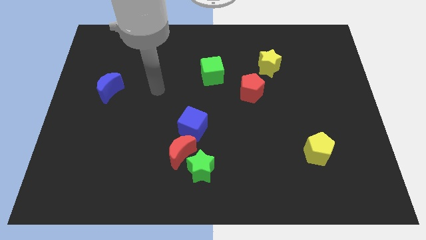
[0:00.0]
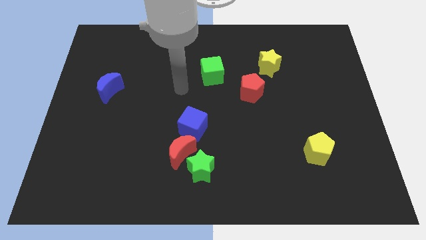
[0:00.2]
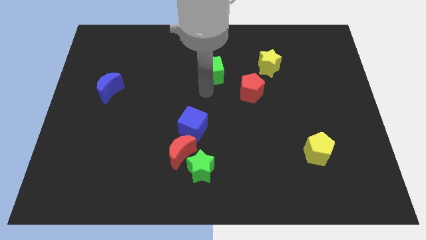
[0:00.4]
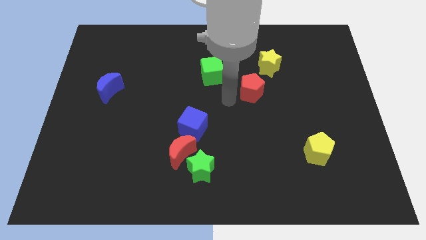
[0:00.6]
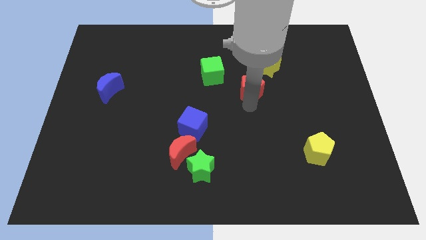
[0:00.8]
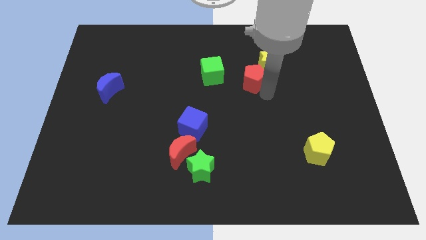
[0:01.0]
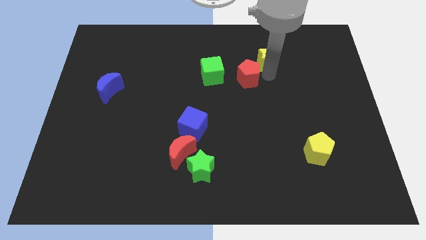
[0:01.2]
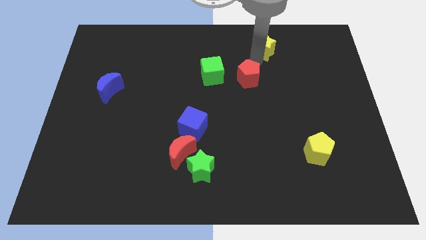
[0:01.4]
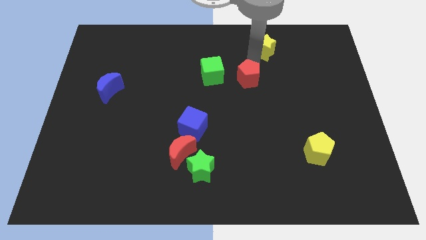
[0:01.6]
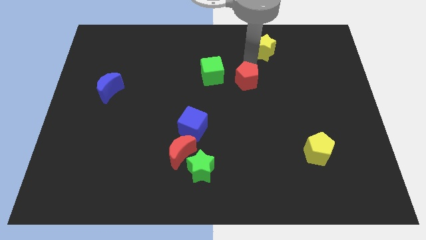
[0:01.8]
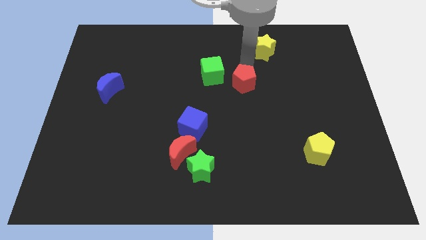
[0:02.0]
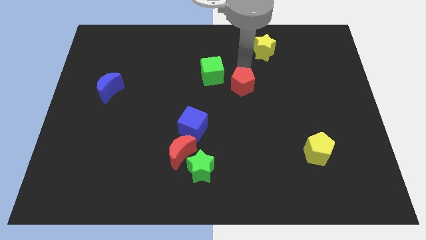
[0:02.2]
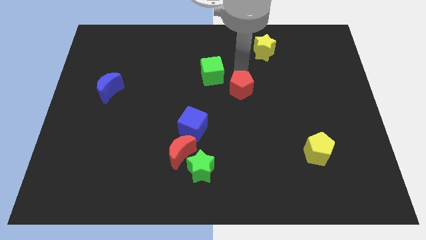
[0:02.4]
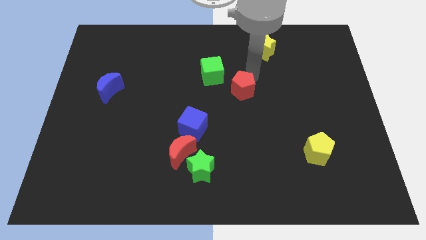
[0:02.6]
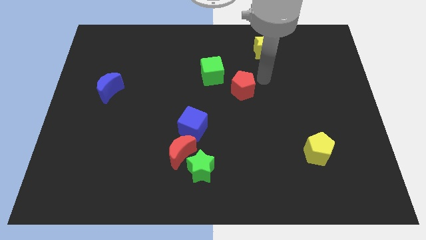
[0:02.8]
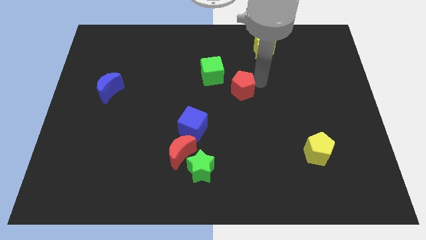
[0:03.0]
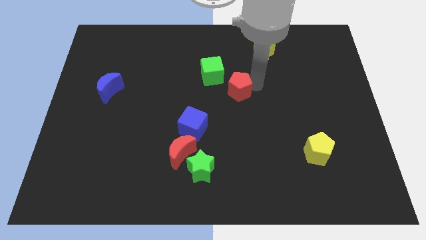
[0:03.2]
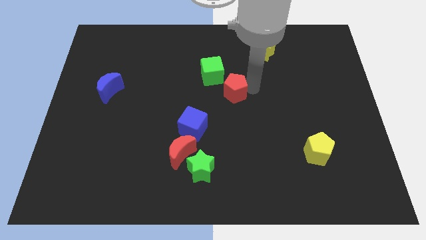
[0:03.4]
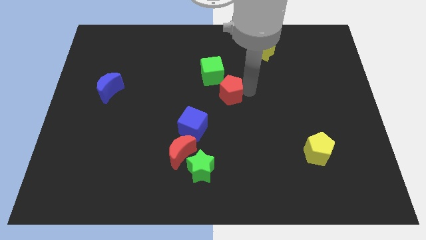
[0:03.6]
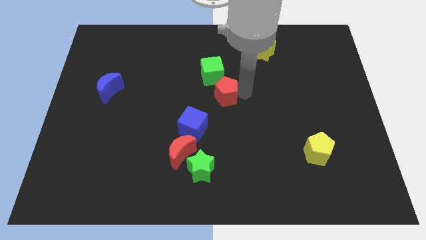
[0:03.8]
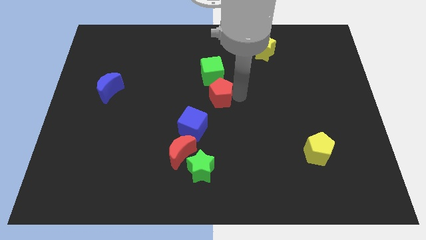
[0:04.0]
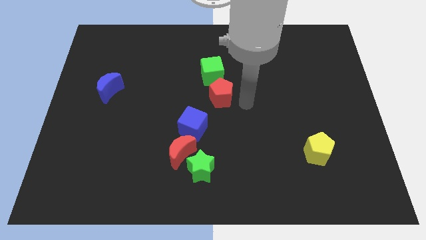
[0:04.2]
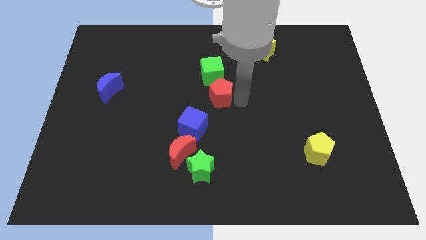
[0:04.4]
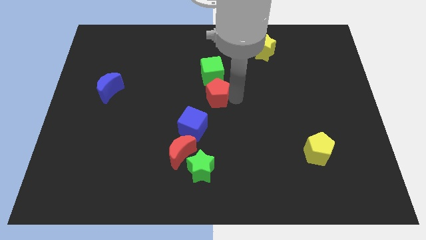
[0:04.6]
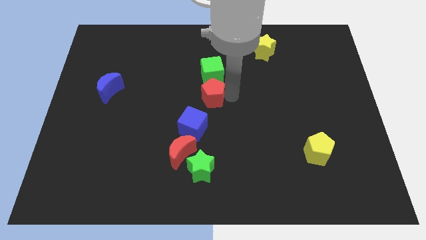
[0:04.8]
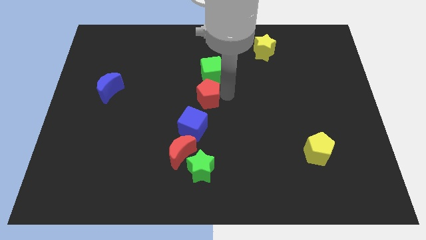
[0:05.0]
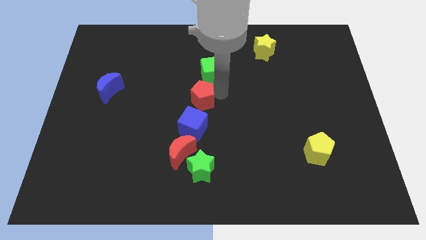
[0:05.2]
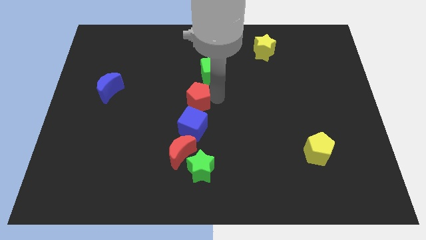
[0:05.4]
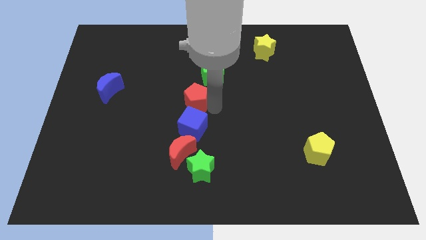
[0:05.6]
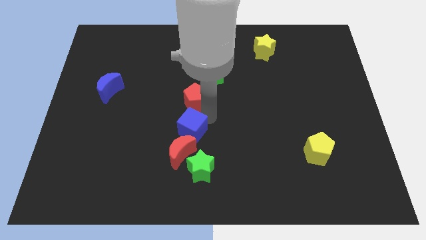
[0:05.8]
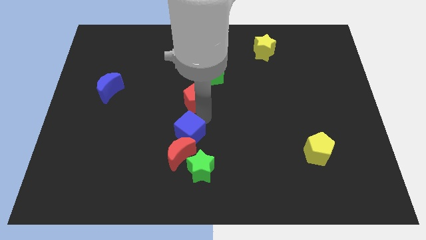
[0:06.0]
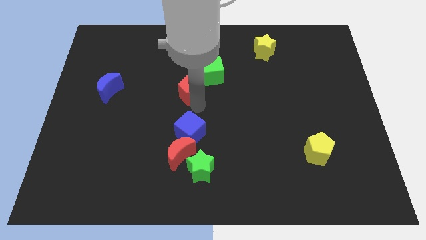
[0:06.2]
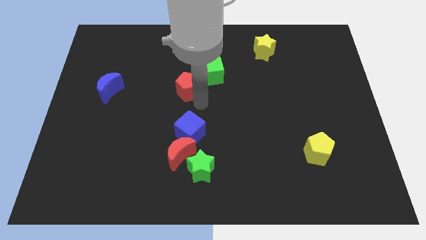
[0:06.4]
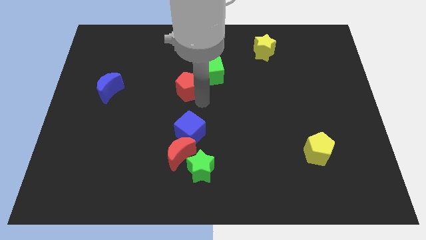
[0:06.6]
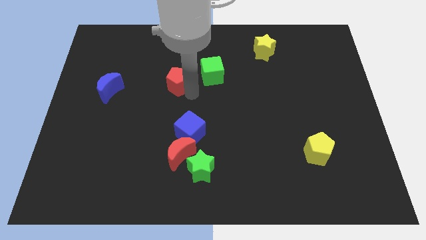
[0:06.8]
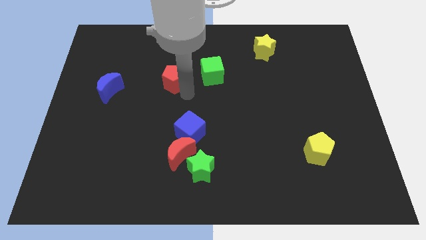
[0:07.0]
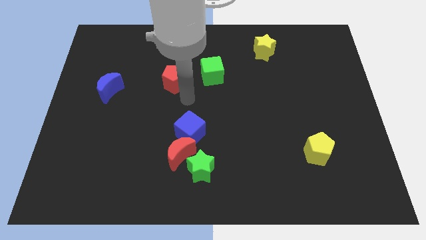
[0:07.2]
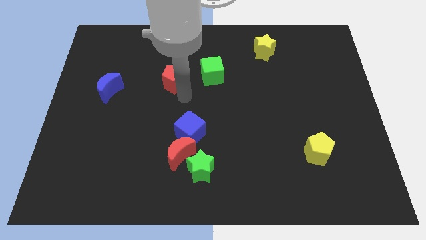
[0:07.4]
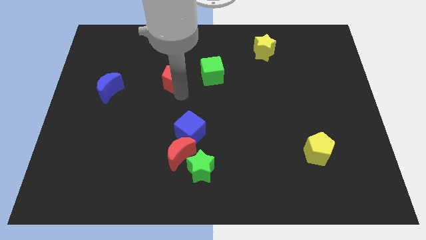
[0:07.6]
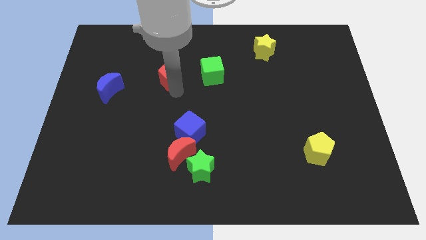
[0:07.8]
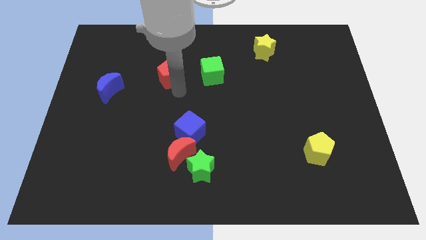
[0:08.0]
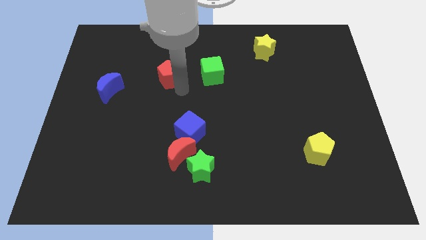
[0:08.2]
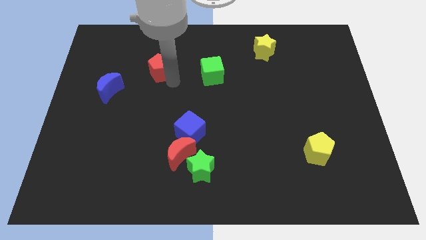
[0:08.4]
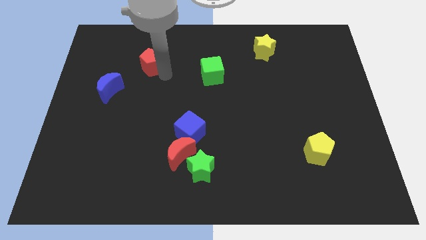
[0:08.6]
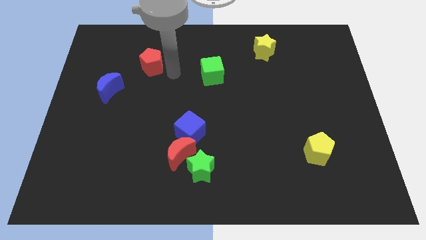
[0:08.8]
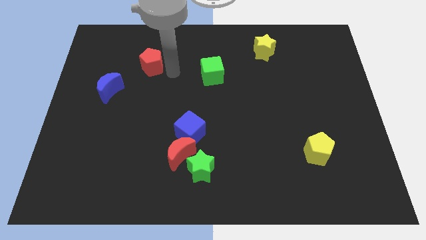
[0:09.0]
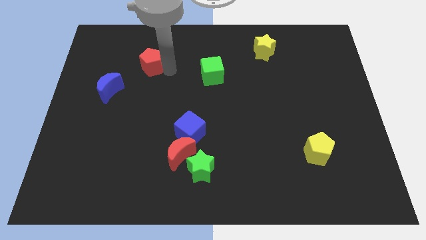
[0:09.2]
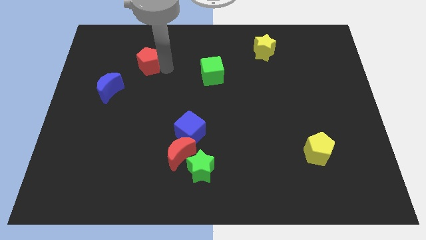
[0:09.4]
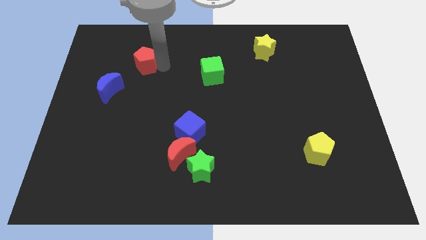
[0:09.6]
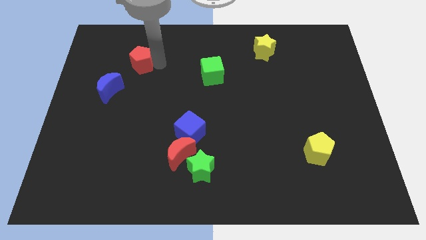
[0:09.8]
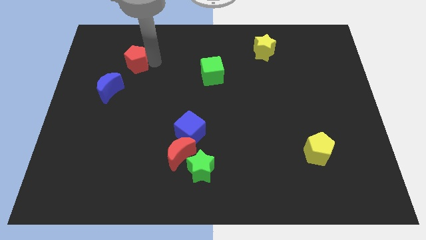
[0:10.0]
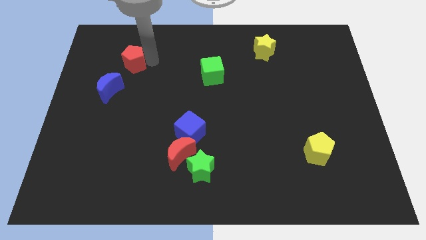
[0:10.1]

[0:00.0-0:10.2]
move the red pentagon to the top side of the blue moon
